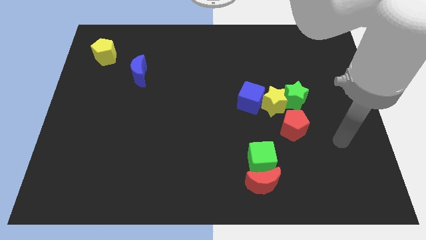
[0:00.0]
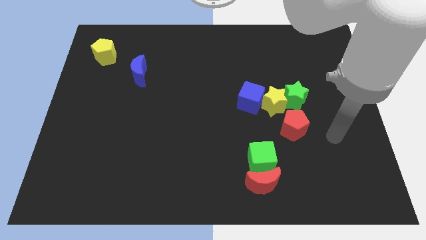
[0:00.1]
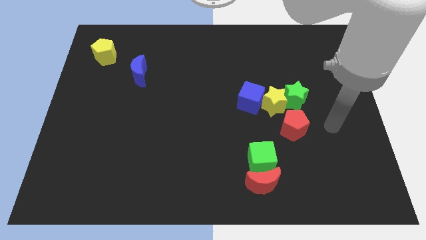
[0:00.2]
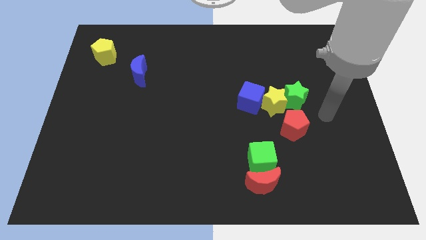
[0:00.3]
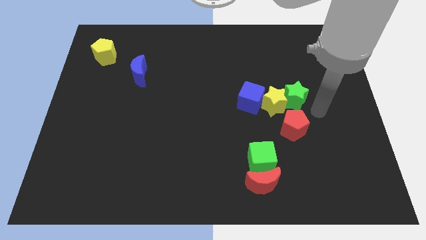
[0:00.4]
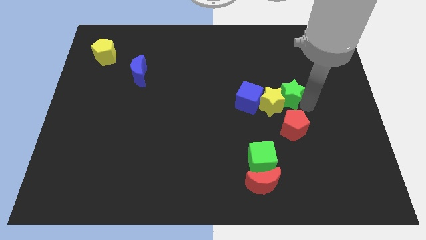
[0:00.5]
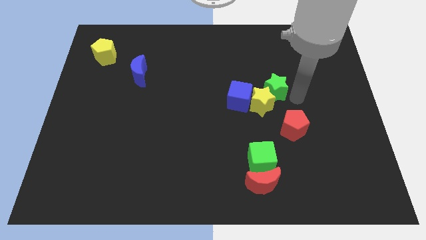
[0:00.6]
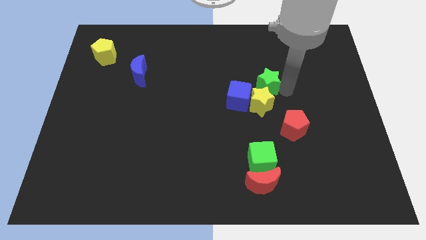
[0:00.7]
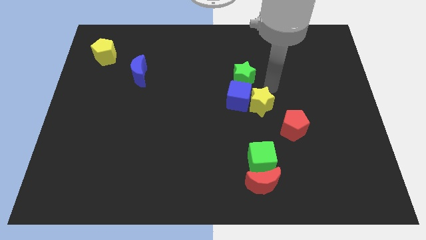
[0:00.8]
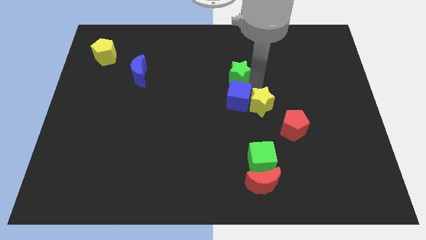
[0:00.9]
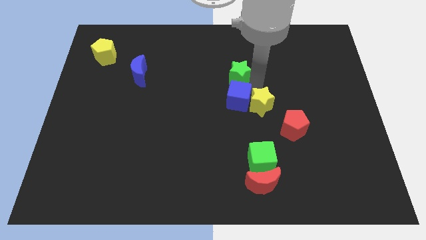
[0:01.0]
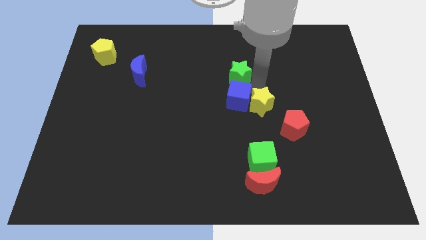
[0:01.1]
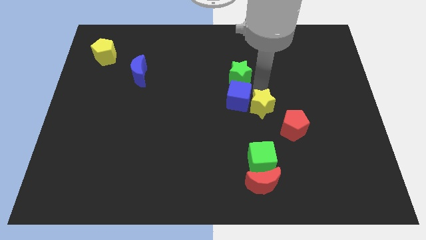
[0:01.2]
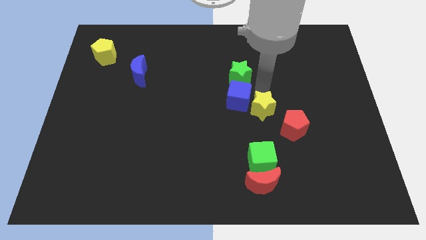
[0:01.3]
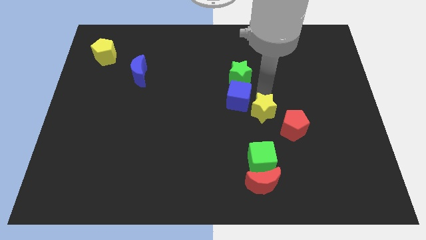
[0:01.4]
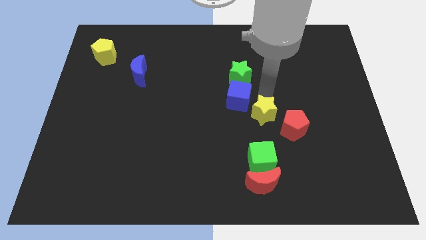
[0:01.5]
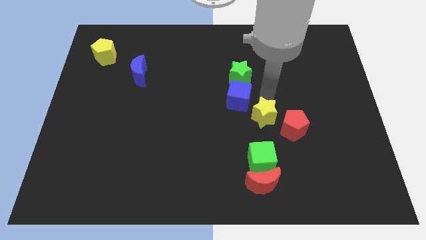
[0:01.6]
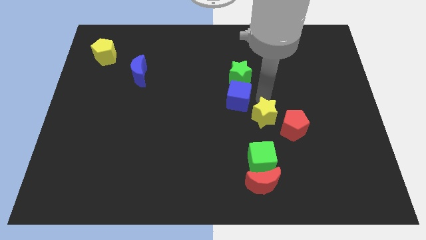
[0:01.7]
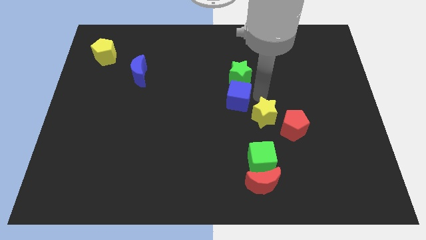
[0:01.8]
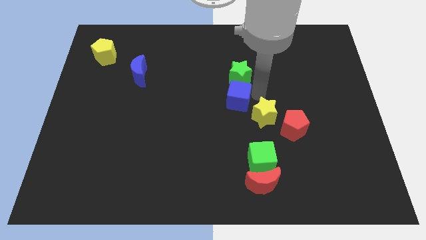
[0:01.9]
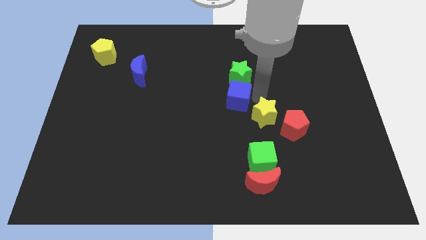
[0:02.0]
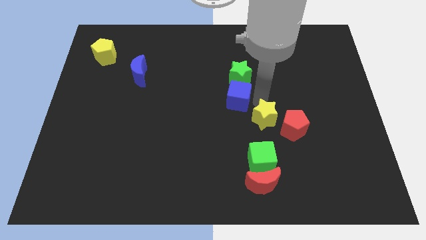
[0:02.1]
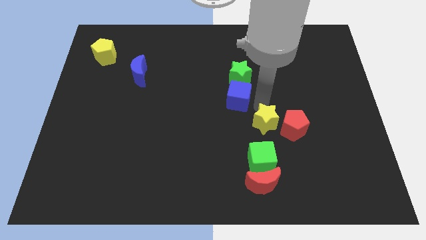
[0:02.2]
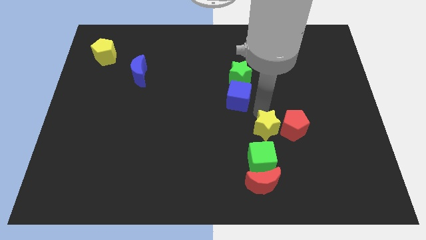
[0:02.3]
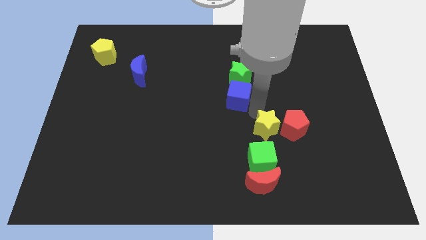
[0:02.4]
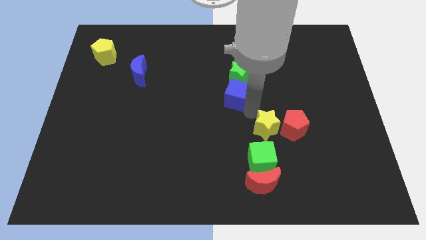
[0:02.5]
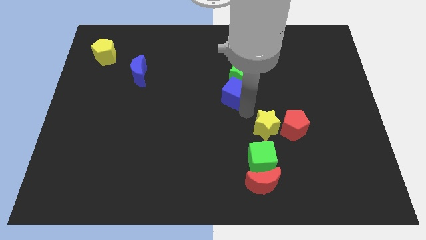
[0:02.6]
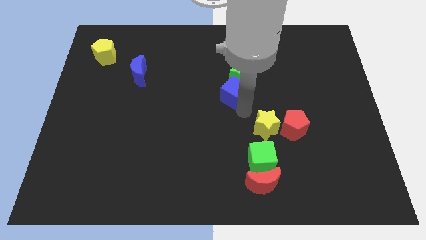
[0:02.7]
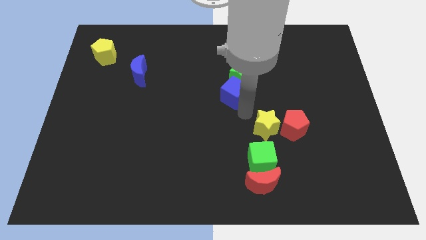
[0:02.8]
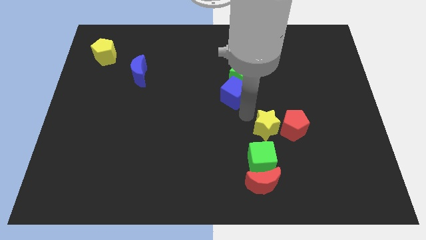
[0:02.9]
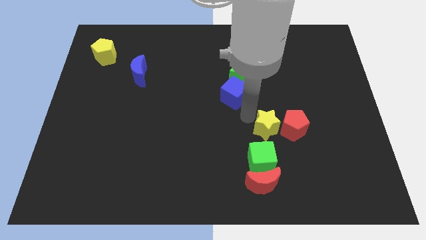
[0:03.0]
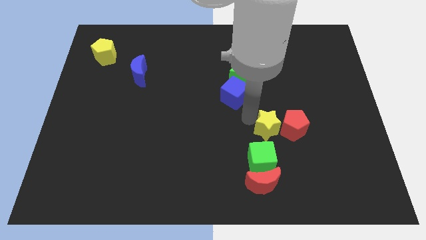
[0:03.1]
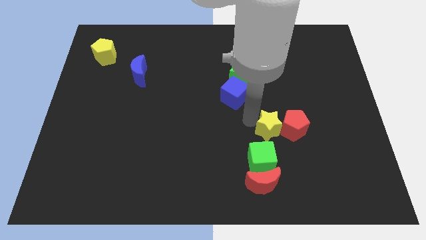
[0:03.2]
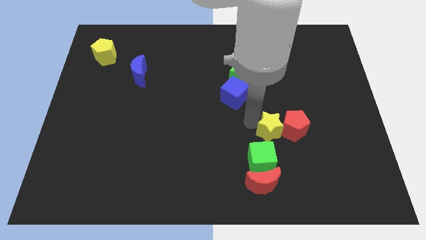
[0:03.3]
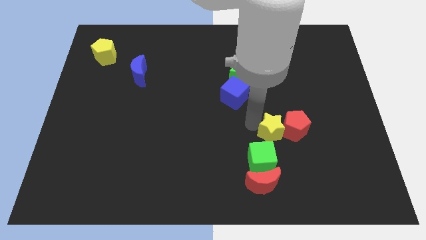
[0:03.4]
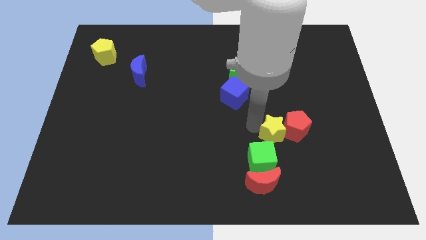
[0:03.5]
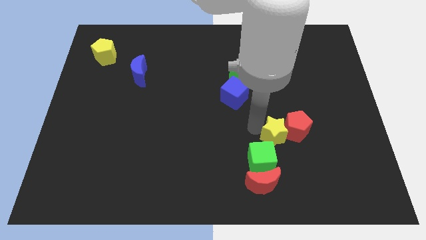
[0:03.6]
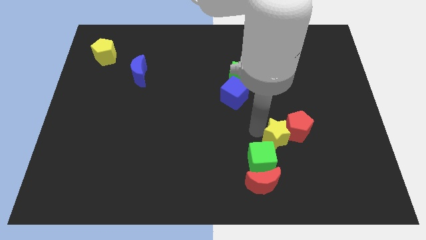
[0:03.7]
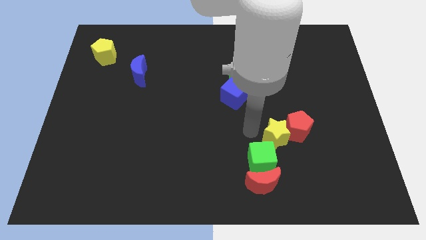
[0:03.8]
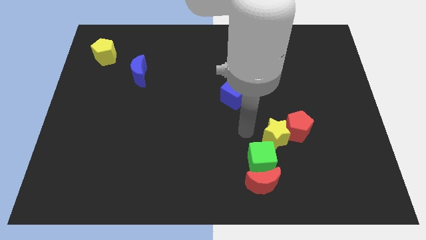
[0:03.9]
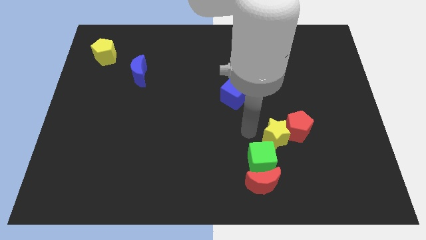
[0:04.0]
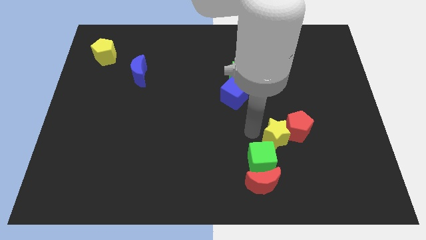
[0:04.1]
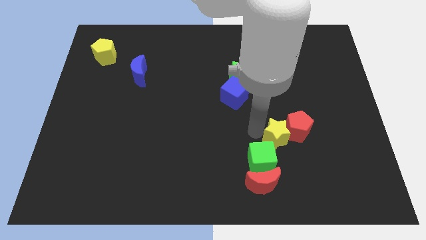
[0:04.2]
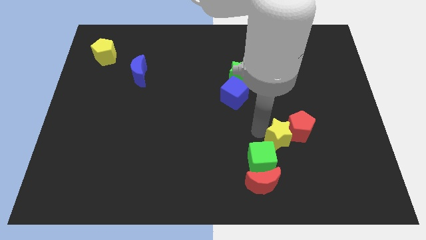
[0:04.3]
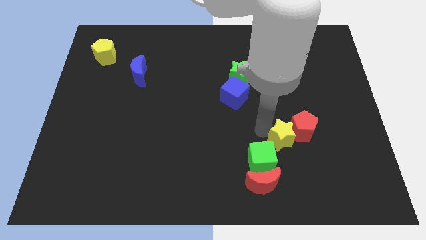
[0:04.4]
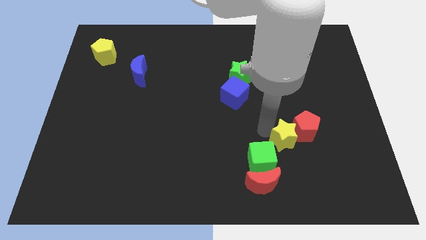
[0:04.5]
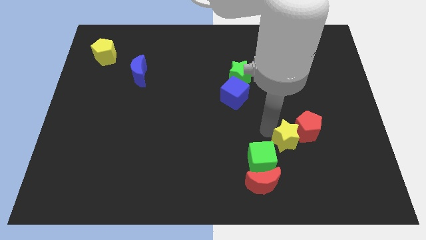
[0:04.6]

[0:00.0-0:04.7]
slide the yellow star a bit down and right

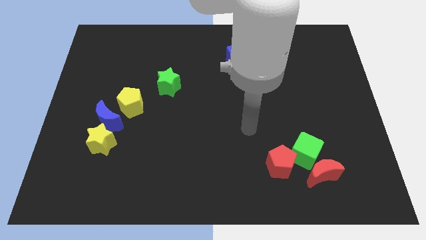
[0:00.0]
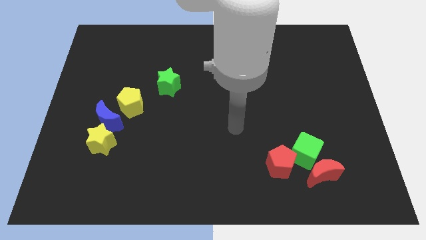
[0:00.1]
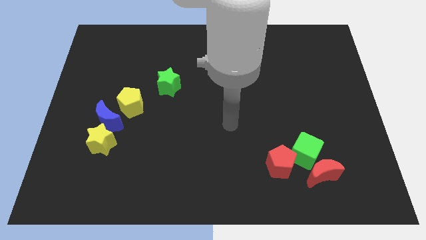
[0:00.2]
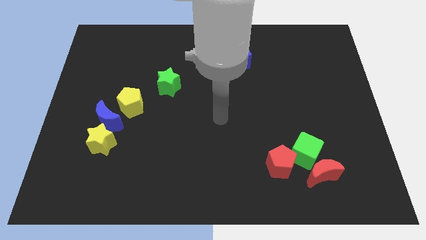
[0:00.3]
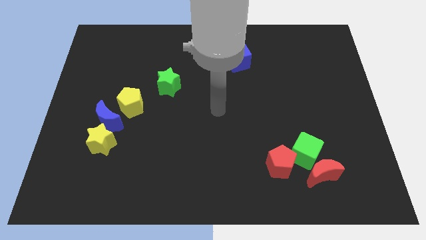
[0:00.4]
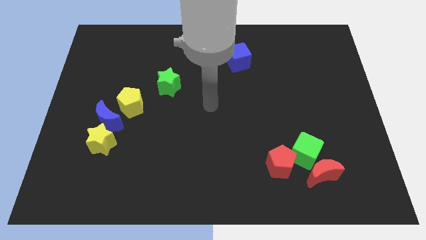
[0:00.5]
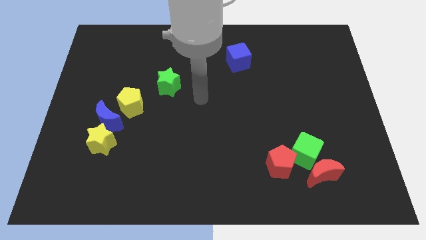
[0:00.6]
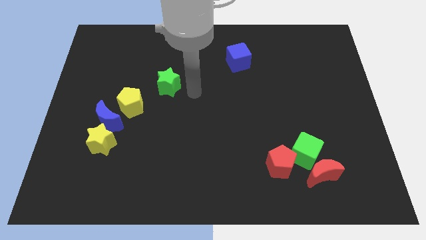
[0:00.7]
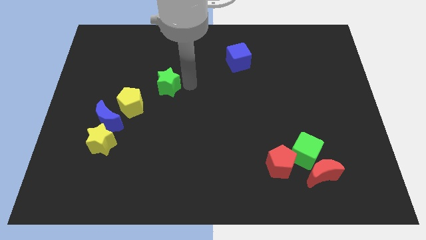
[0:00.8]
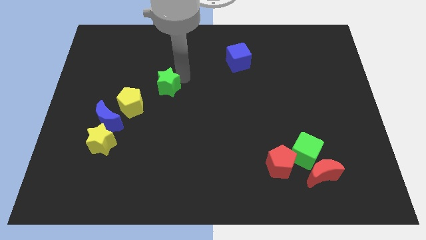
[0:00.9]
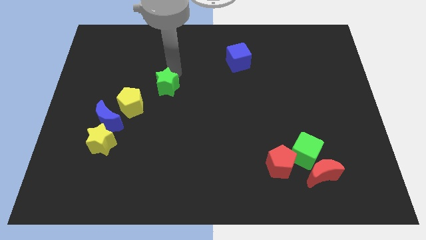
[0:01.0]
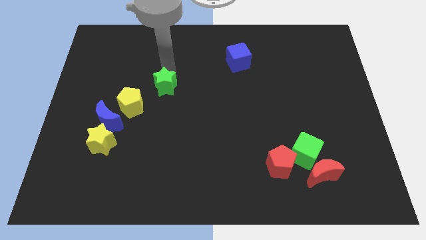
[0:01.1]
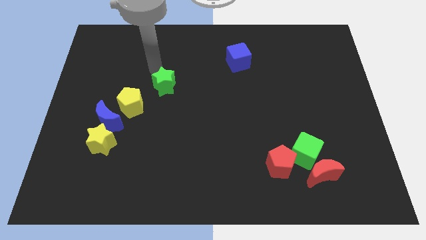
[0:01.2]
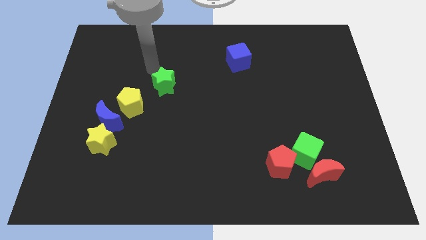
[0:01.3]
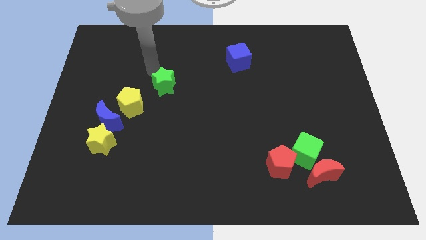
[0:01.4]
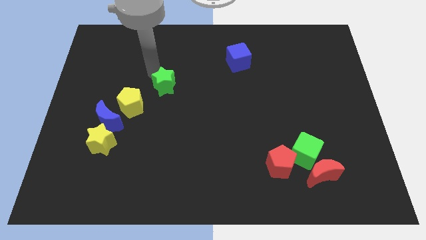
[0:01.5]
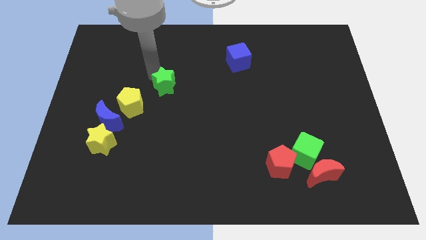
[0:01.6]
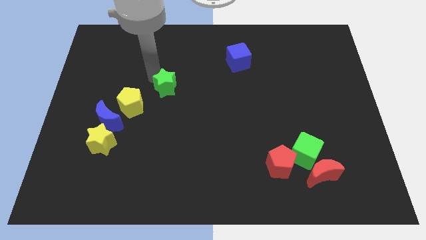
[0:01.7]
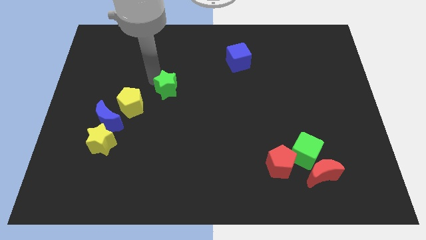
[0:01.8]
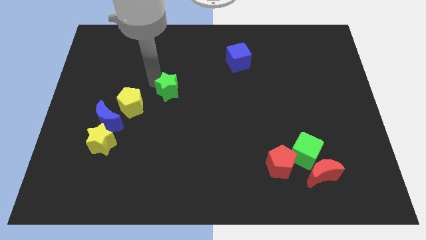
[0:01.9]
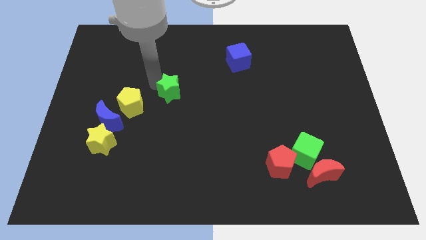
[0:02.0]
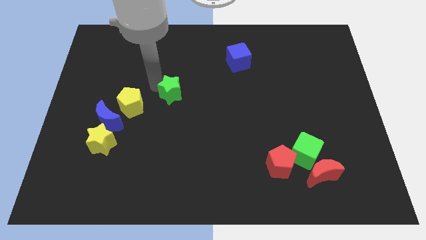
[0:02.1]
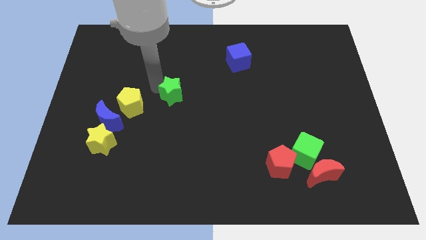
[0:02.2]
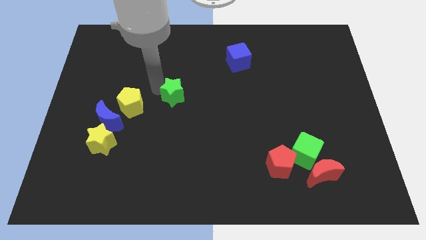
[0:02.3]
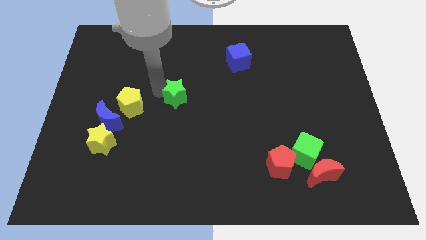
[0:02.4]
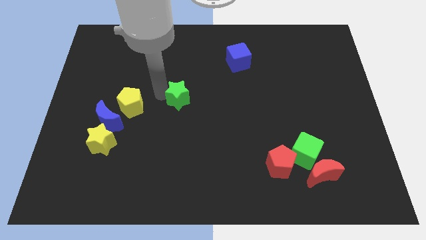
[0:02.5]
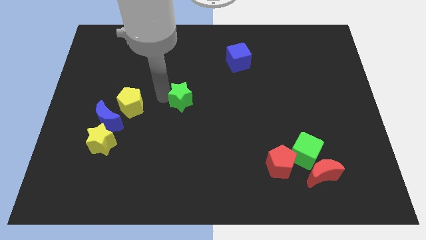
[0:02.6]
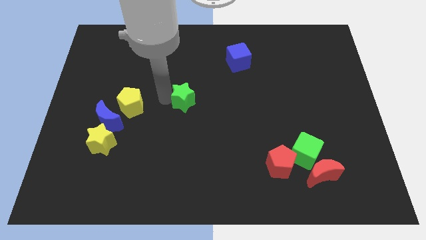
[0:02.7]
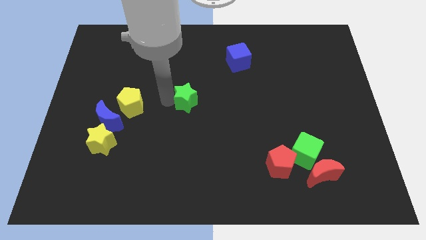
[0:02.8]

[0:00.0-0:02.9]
slightly slide the green star down and to the right diagonally

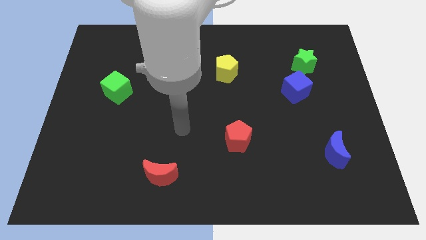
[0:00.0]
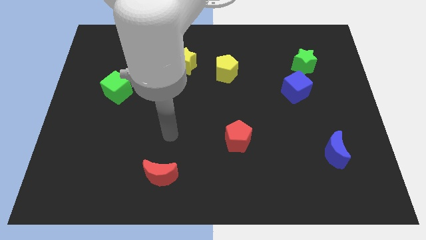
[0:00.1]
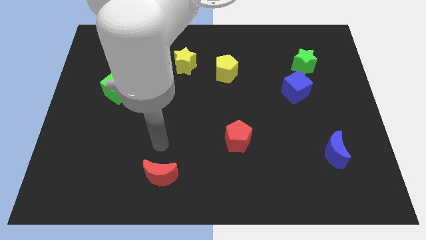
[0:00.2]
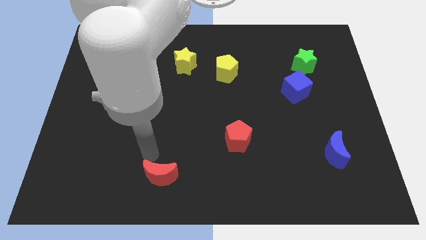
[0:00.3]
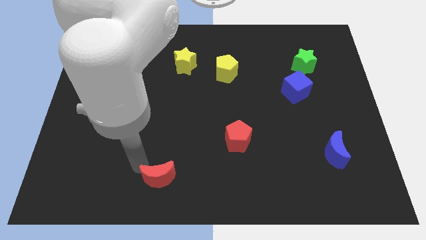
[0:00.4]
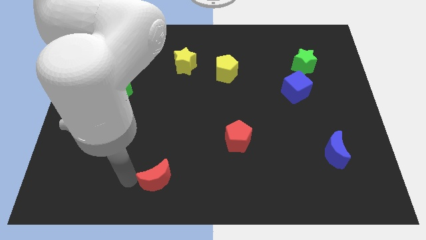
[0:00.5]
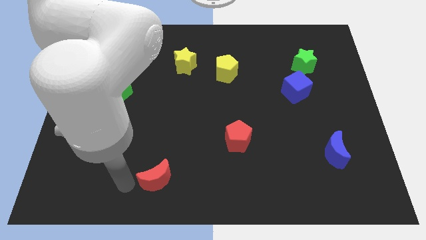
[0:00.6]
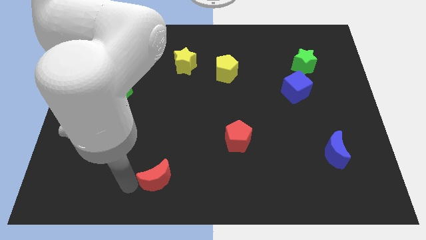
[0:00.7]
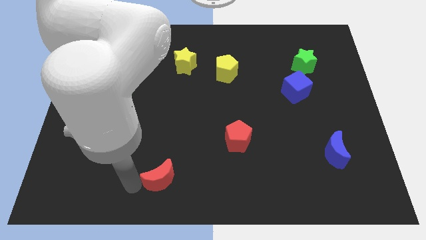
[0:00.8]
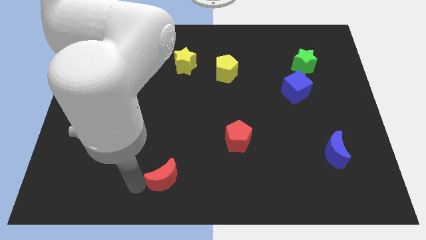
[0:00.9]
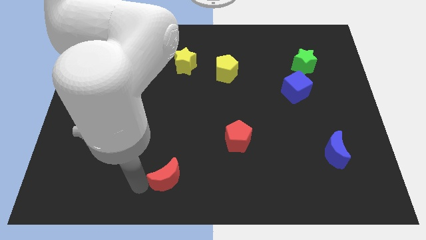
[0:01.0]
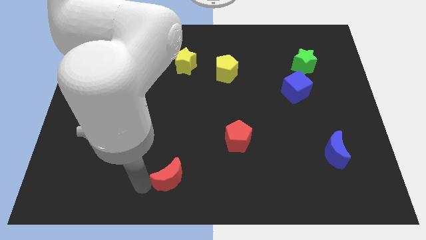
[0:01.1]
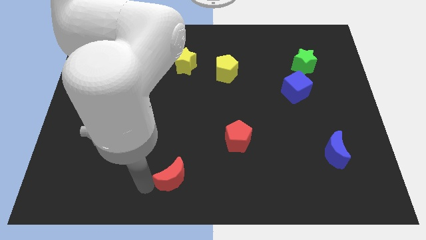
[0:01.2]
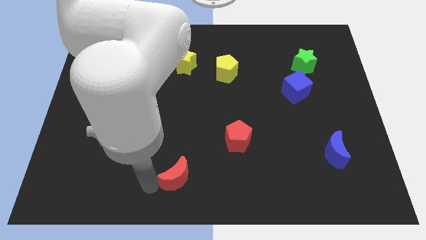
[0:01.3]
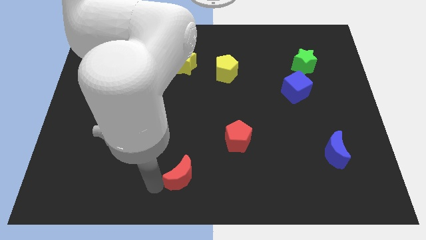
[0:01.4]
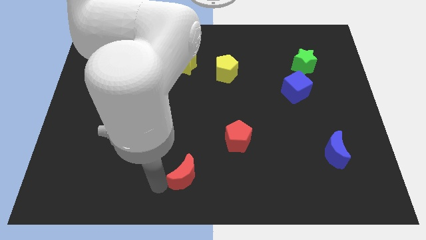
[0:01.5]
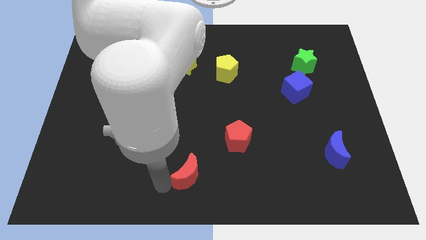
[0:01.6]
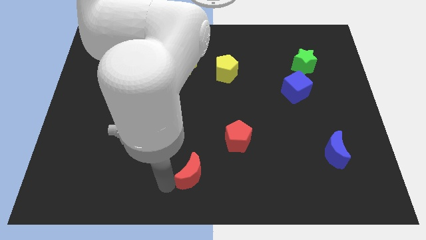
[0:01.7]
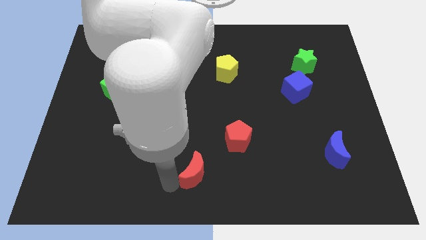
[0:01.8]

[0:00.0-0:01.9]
push the red moon right a bit
